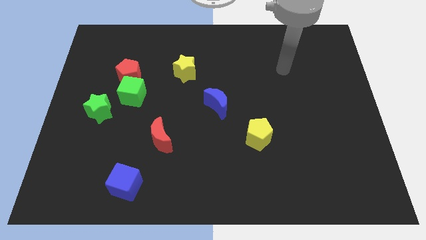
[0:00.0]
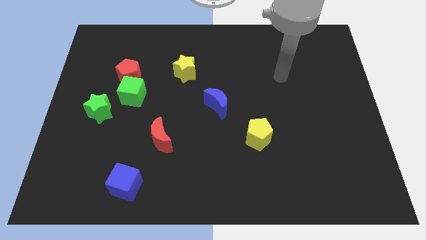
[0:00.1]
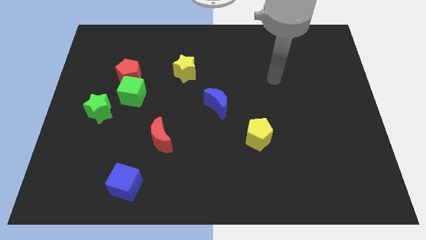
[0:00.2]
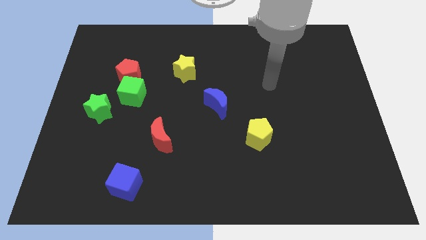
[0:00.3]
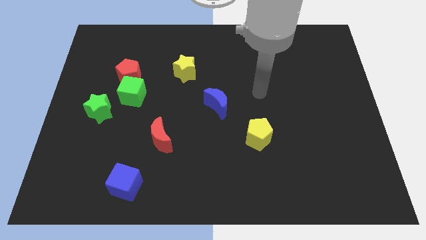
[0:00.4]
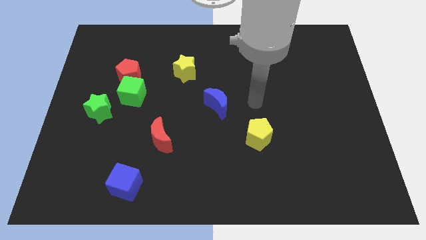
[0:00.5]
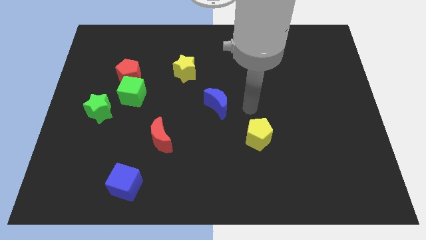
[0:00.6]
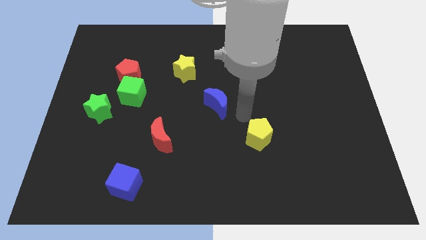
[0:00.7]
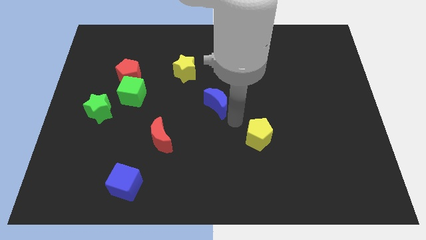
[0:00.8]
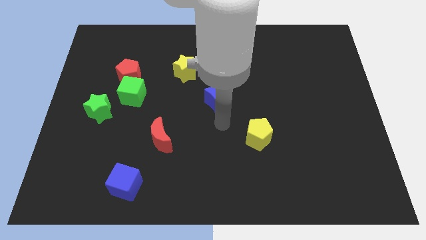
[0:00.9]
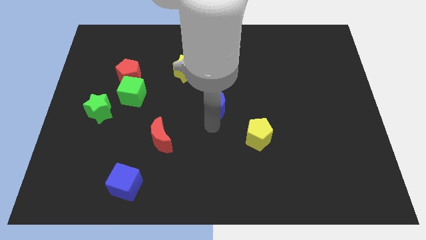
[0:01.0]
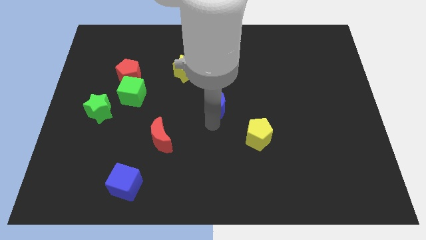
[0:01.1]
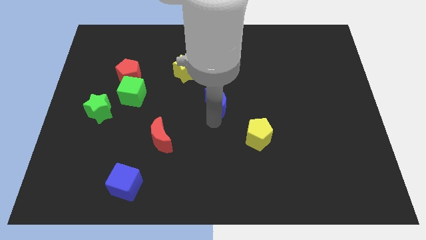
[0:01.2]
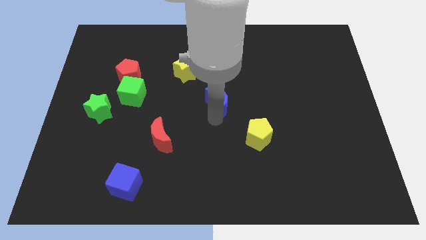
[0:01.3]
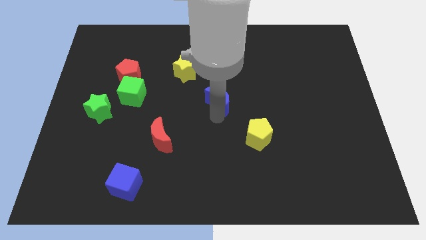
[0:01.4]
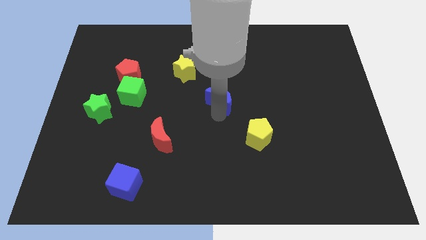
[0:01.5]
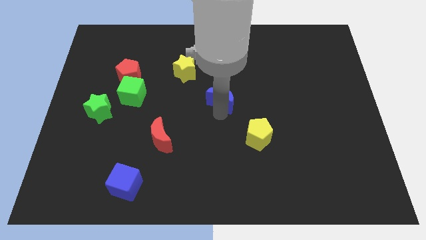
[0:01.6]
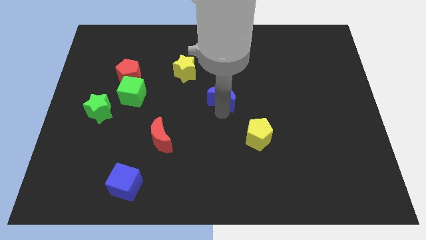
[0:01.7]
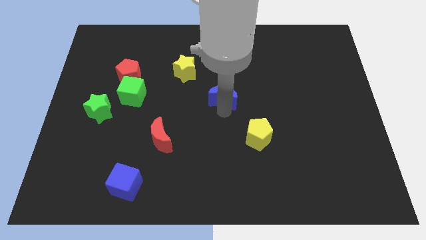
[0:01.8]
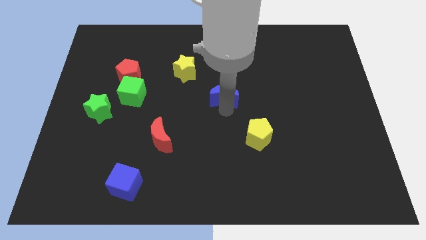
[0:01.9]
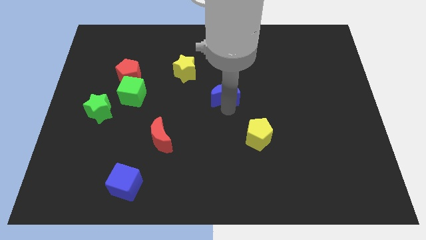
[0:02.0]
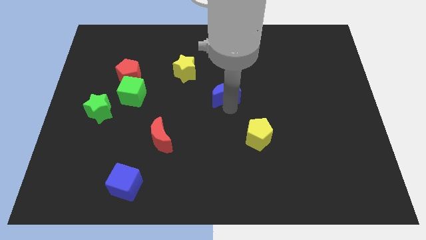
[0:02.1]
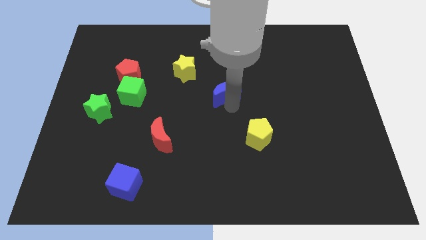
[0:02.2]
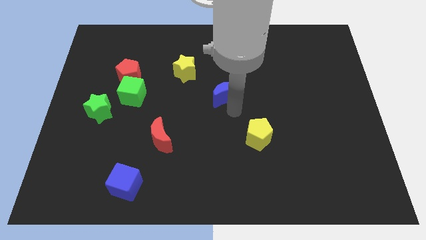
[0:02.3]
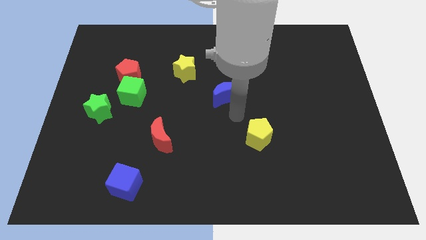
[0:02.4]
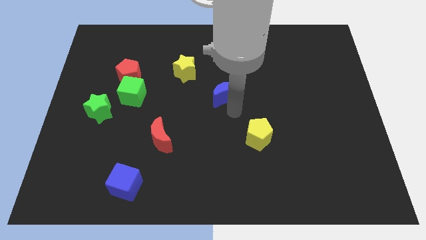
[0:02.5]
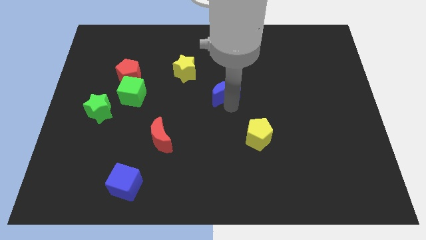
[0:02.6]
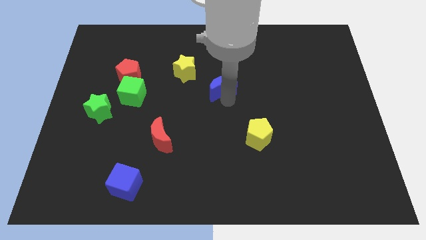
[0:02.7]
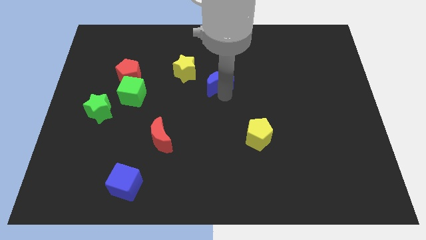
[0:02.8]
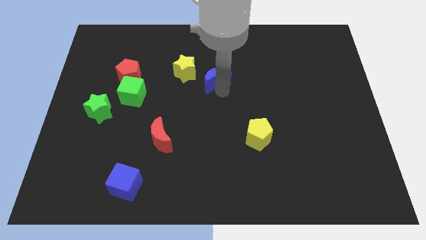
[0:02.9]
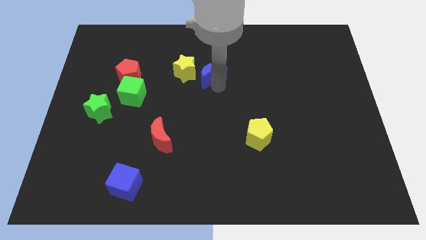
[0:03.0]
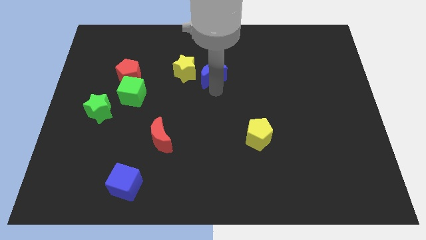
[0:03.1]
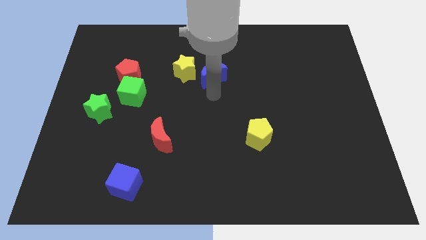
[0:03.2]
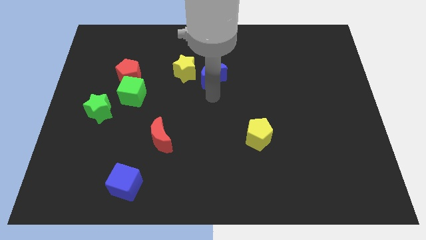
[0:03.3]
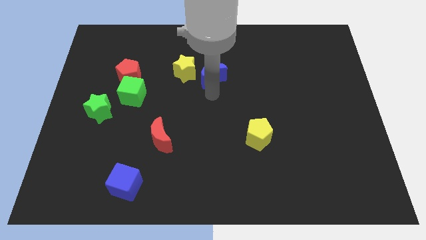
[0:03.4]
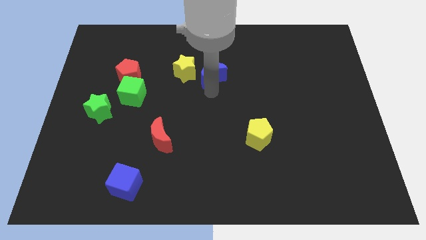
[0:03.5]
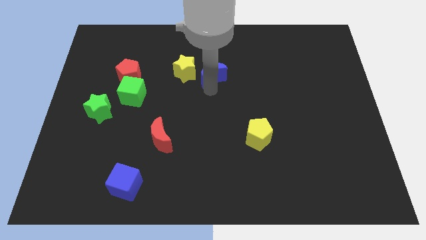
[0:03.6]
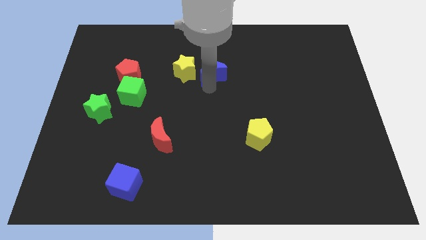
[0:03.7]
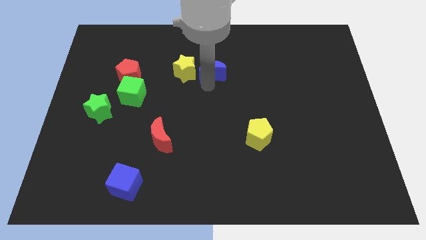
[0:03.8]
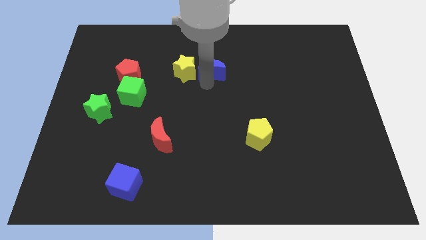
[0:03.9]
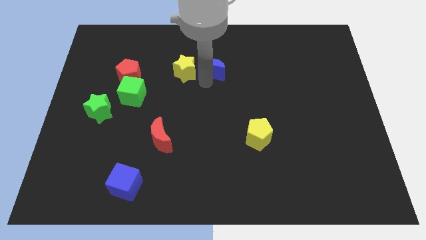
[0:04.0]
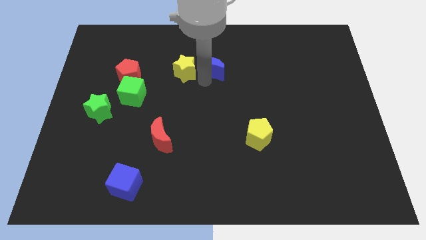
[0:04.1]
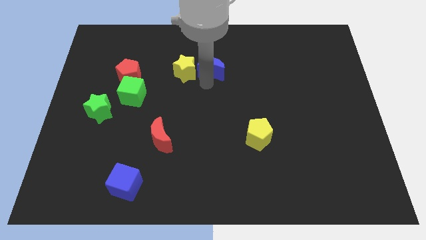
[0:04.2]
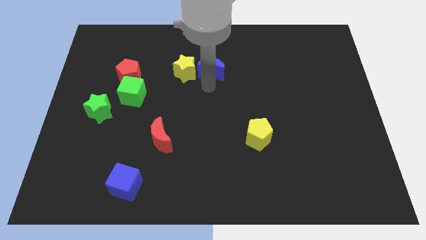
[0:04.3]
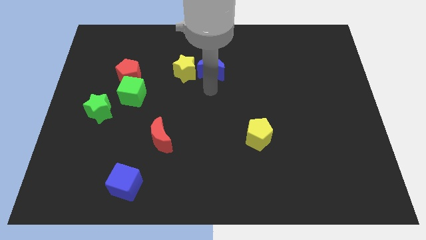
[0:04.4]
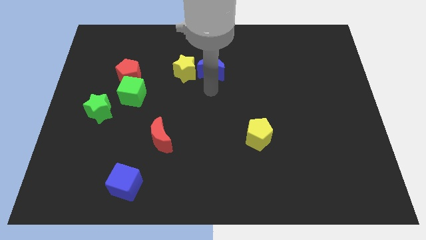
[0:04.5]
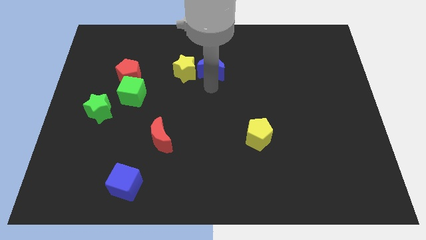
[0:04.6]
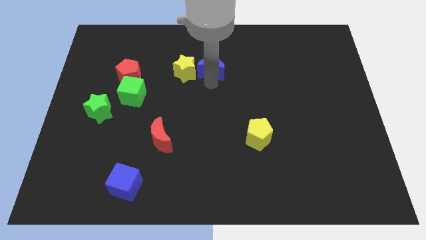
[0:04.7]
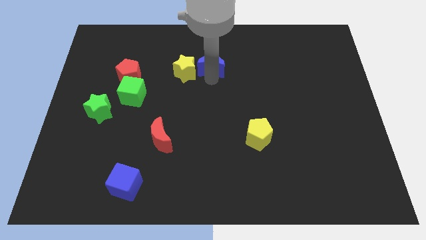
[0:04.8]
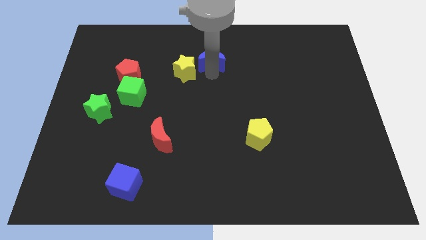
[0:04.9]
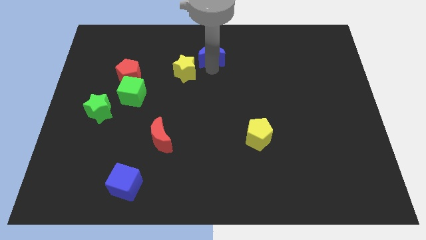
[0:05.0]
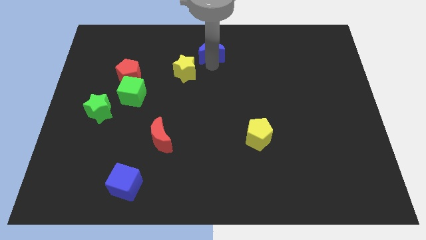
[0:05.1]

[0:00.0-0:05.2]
move the blue moon to the top side

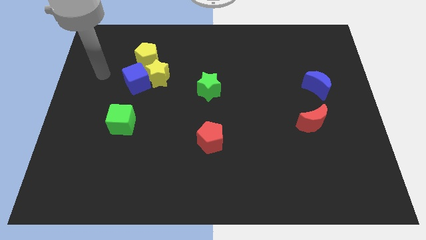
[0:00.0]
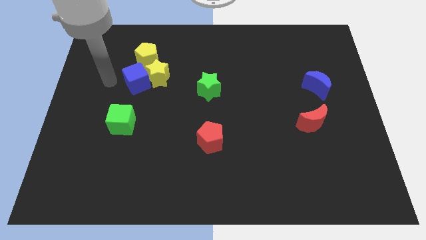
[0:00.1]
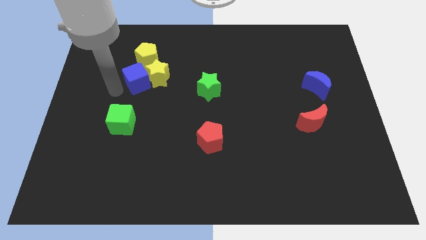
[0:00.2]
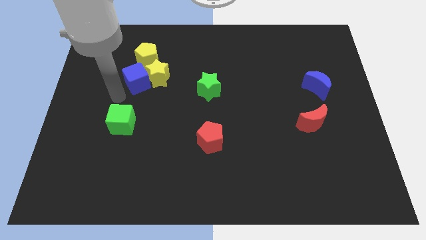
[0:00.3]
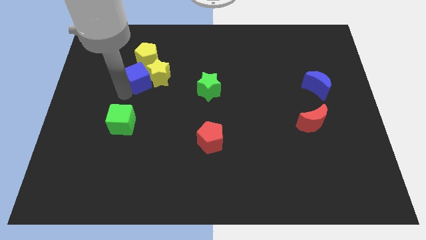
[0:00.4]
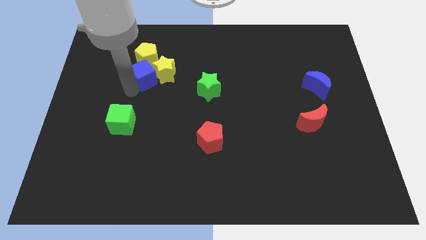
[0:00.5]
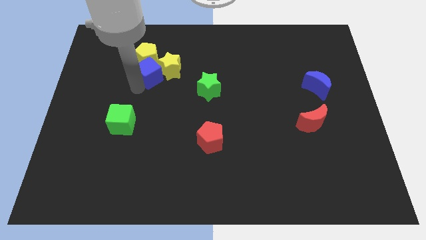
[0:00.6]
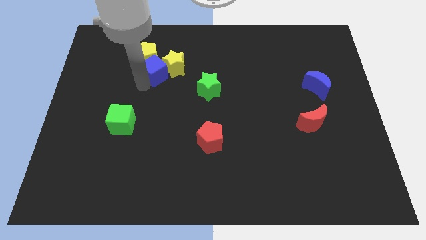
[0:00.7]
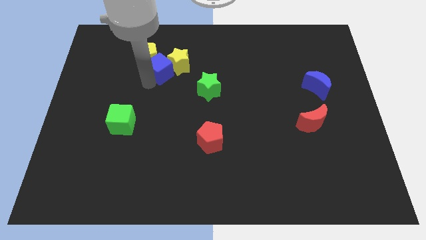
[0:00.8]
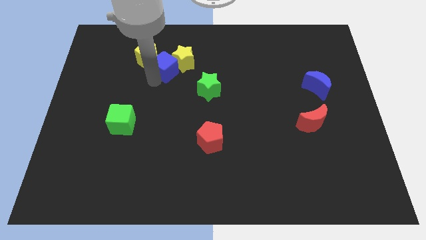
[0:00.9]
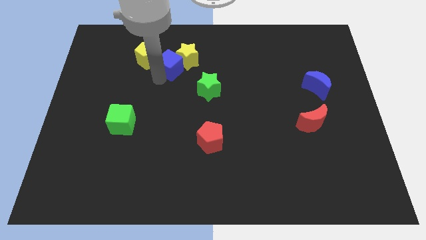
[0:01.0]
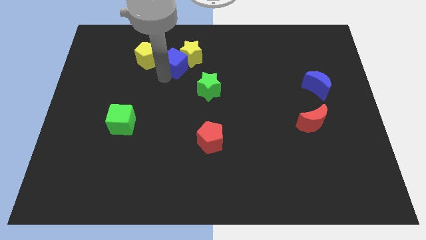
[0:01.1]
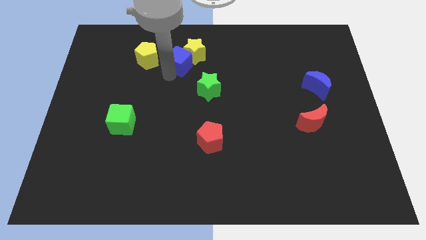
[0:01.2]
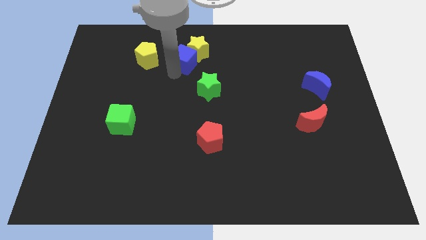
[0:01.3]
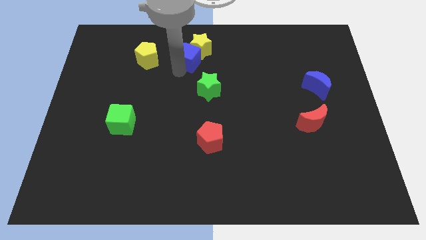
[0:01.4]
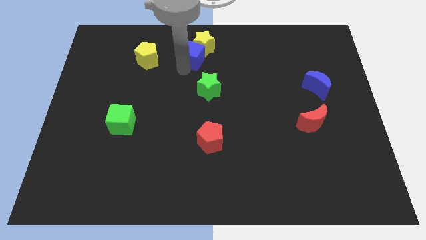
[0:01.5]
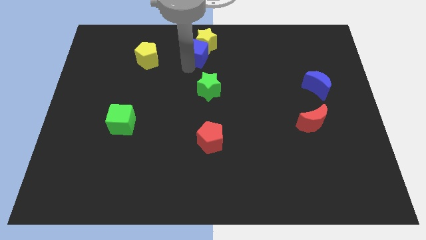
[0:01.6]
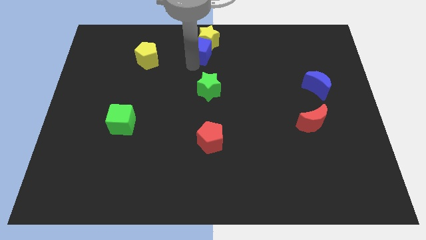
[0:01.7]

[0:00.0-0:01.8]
push the blue cube to the towards your base
